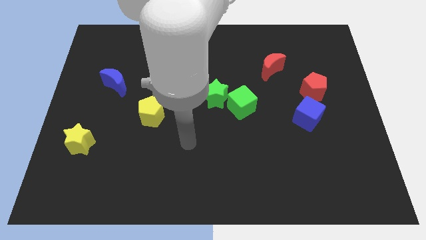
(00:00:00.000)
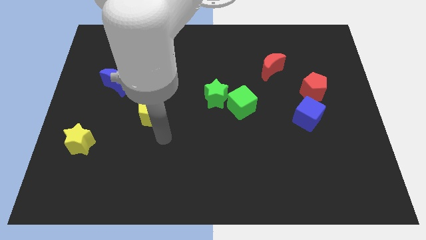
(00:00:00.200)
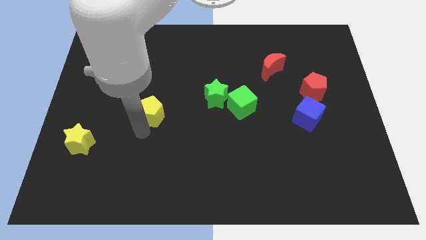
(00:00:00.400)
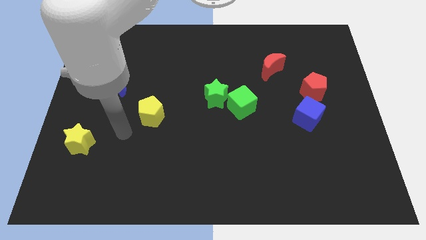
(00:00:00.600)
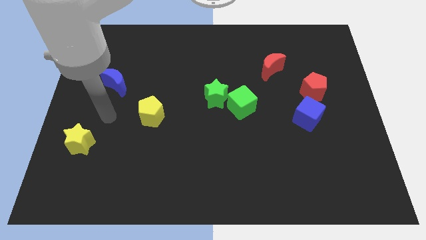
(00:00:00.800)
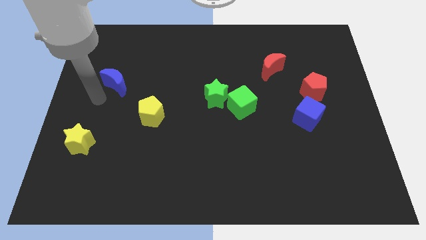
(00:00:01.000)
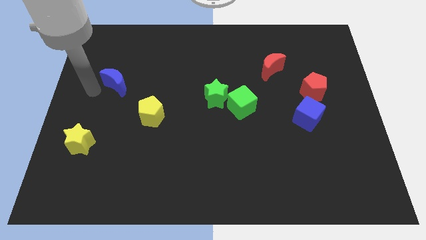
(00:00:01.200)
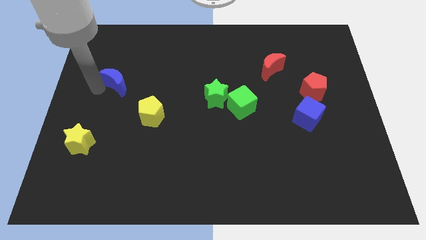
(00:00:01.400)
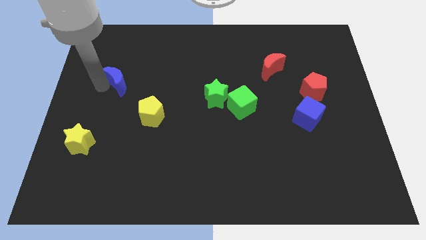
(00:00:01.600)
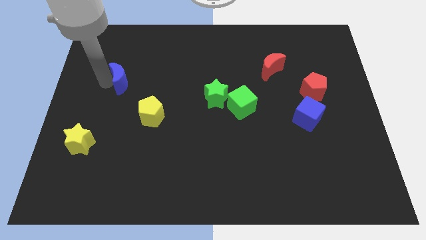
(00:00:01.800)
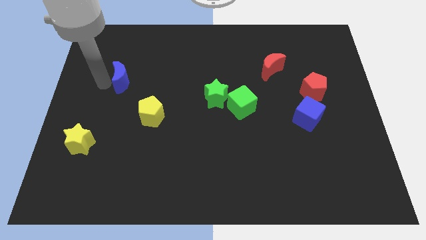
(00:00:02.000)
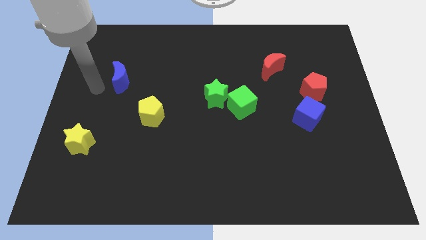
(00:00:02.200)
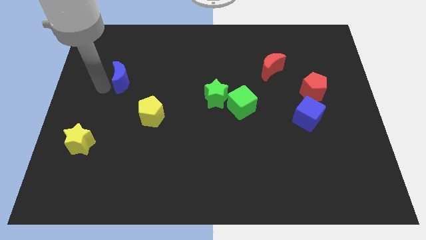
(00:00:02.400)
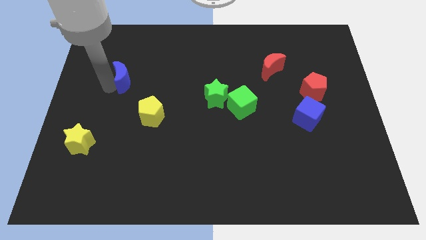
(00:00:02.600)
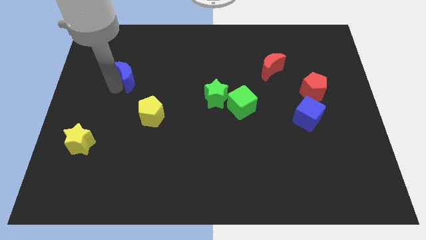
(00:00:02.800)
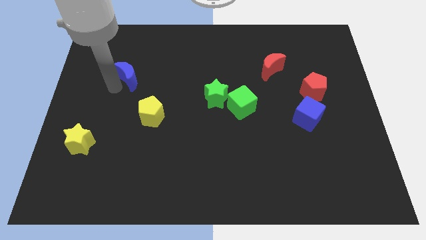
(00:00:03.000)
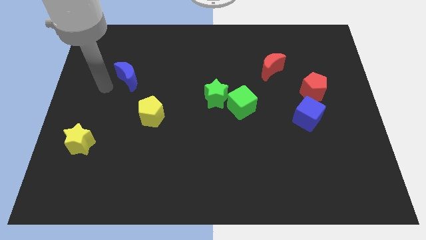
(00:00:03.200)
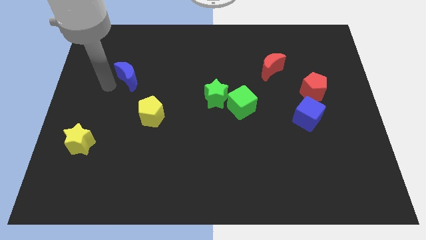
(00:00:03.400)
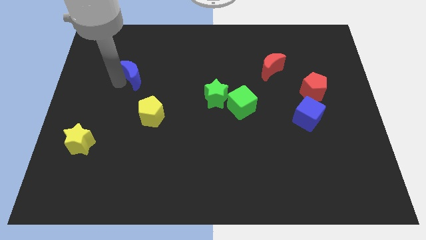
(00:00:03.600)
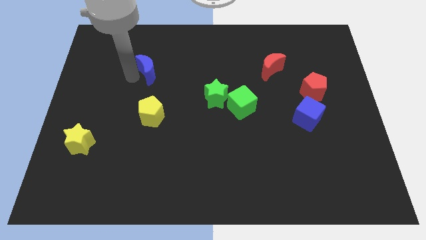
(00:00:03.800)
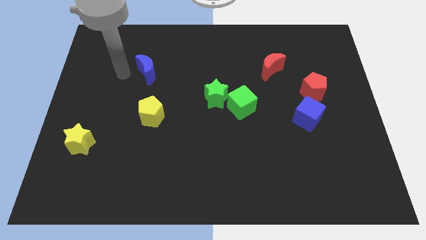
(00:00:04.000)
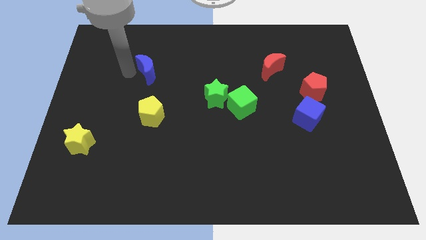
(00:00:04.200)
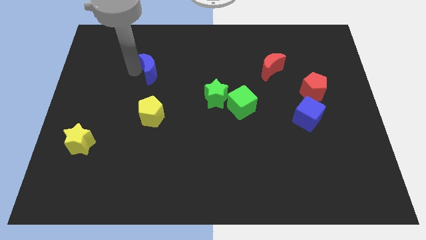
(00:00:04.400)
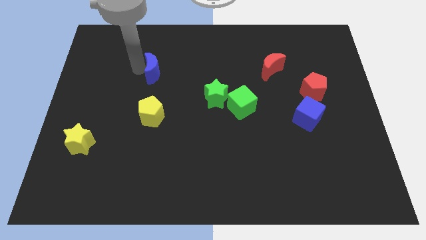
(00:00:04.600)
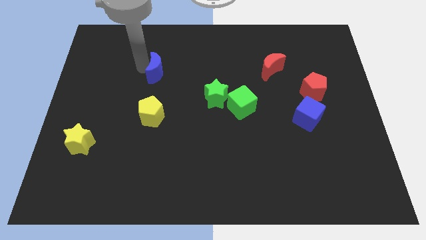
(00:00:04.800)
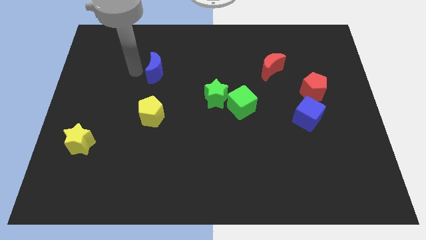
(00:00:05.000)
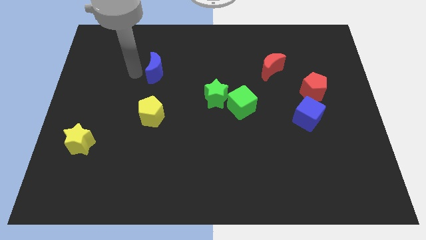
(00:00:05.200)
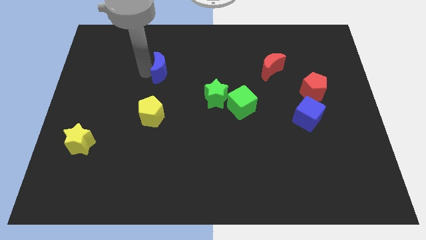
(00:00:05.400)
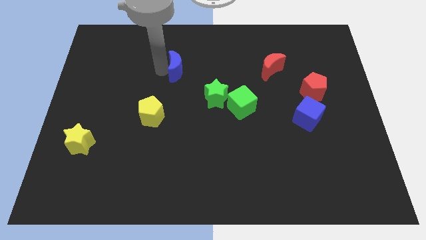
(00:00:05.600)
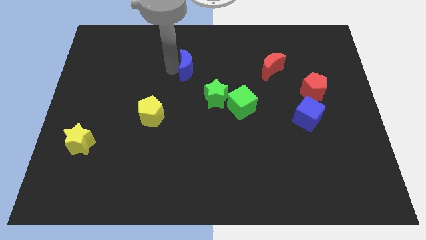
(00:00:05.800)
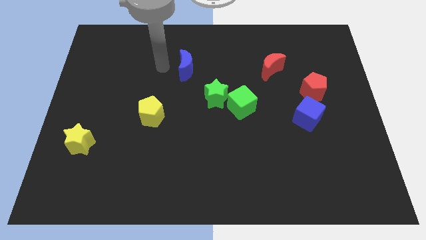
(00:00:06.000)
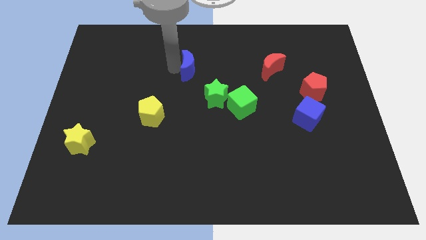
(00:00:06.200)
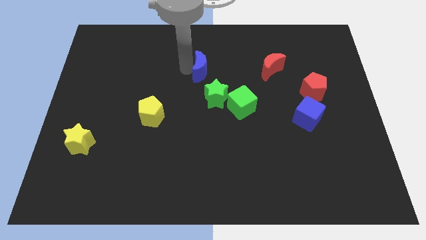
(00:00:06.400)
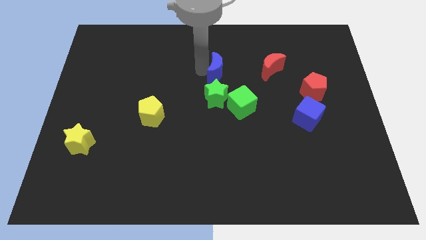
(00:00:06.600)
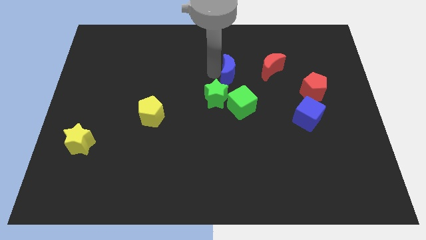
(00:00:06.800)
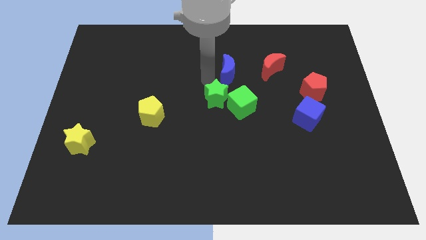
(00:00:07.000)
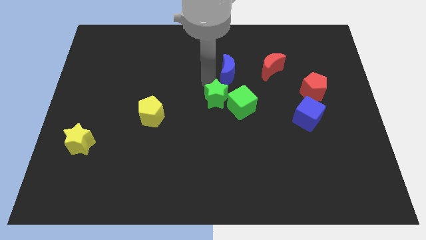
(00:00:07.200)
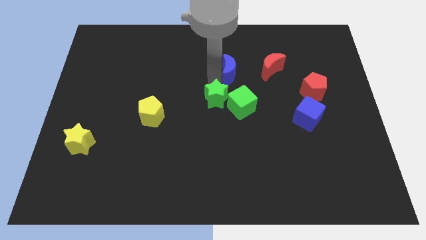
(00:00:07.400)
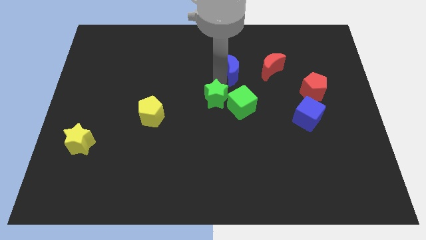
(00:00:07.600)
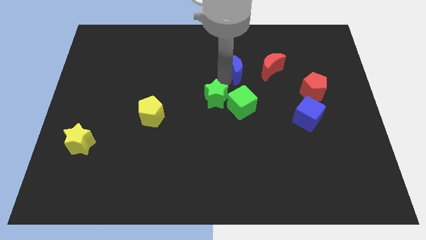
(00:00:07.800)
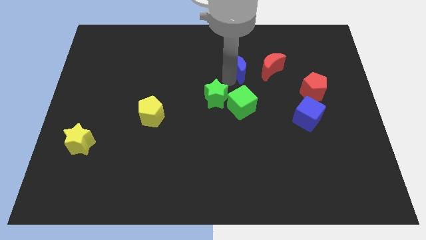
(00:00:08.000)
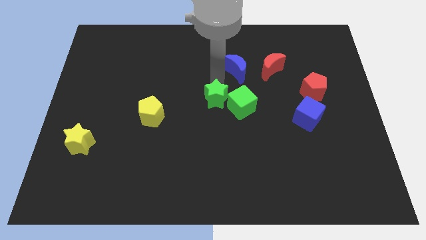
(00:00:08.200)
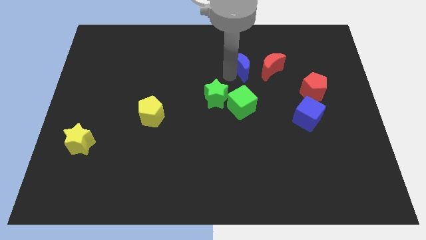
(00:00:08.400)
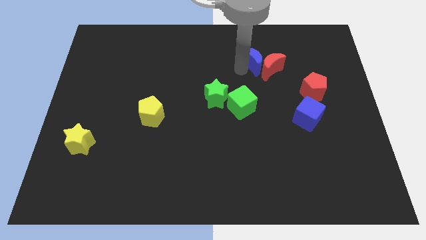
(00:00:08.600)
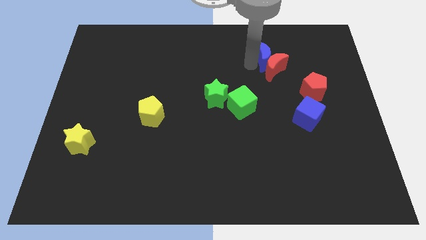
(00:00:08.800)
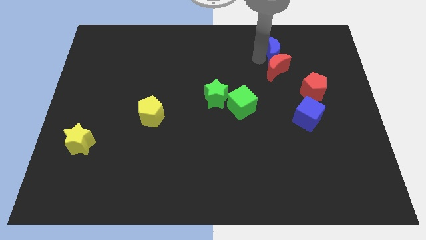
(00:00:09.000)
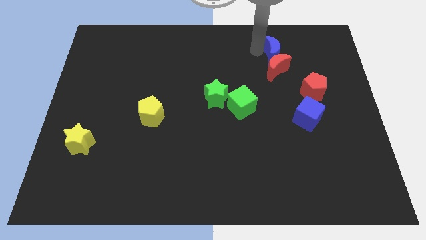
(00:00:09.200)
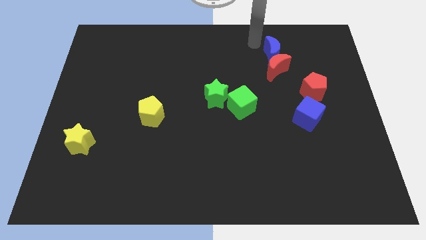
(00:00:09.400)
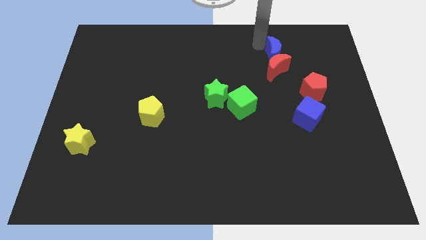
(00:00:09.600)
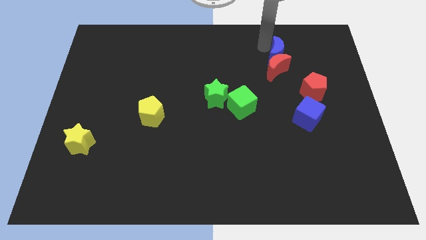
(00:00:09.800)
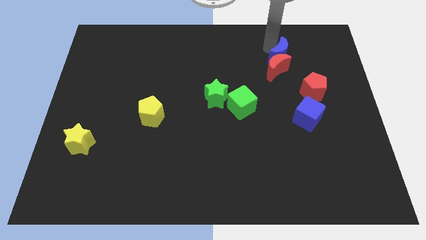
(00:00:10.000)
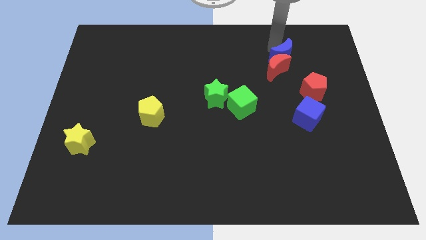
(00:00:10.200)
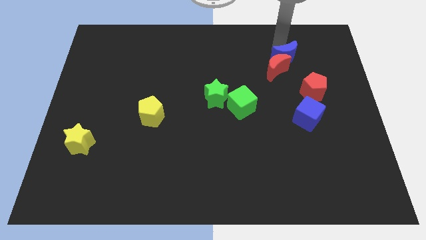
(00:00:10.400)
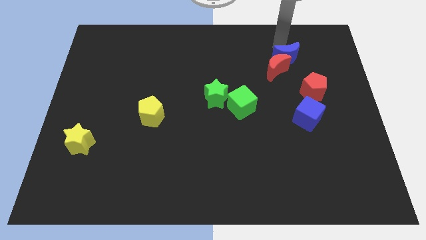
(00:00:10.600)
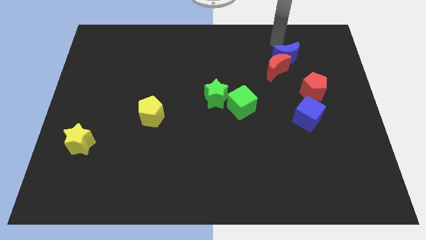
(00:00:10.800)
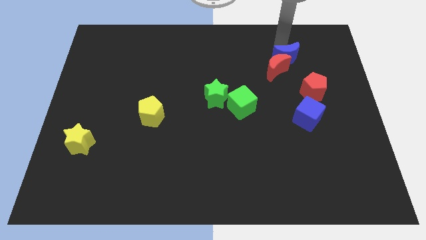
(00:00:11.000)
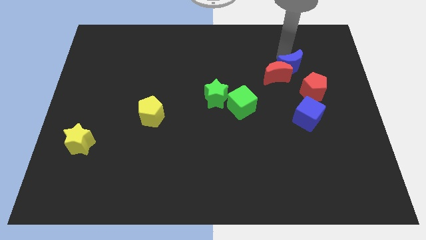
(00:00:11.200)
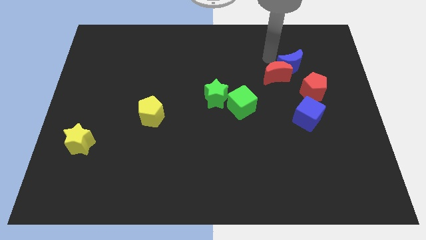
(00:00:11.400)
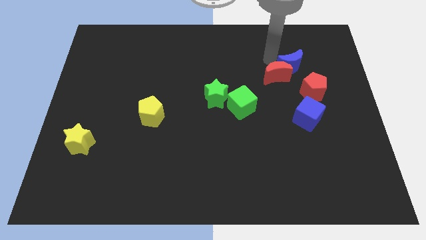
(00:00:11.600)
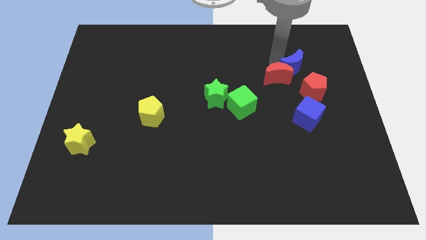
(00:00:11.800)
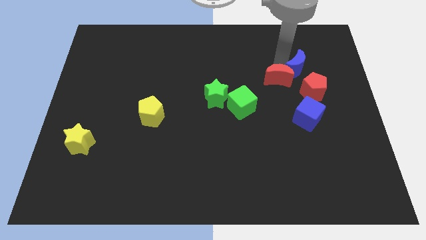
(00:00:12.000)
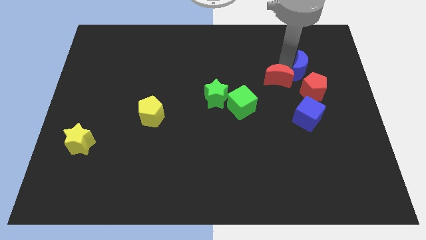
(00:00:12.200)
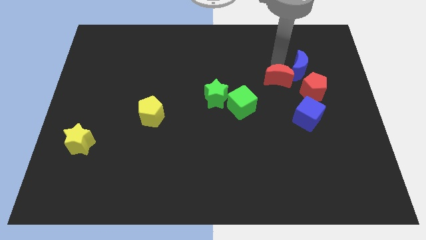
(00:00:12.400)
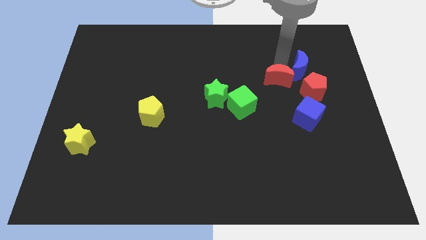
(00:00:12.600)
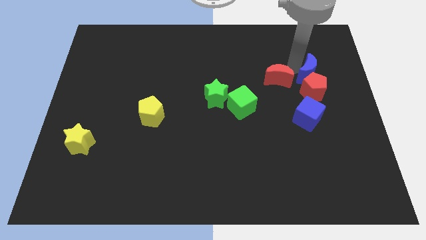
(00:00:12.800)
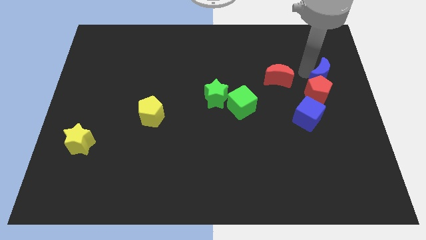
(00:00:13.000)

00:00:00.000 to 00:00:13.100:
push the blue moon to the center right
